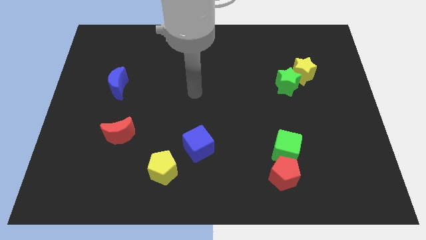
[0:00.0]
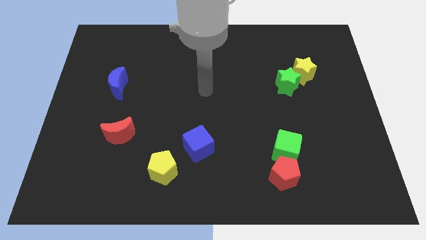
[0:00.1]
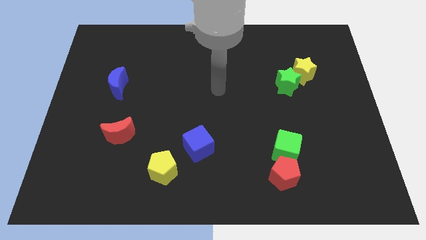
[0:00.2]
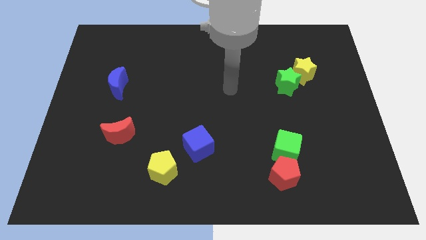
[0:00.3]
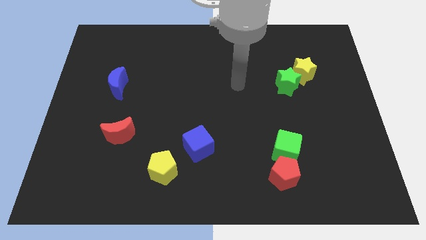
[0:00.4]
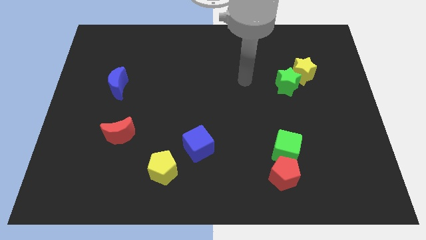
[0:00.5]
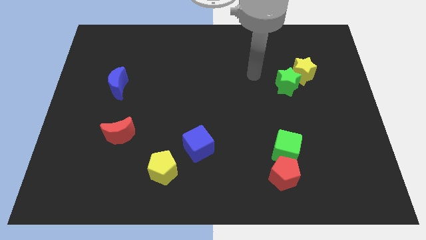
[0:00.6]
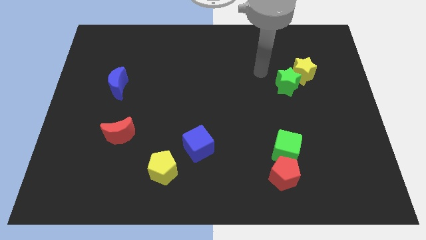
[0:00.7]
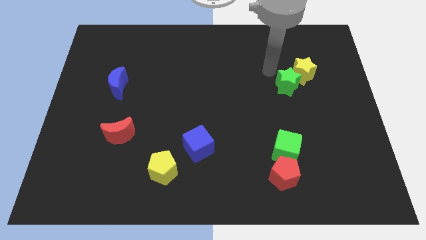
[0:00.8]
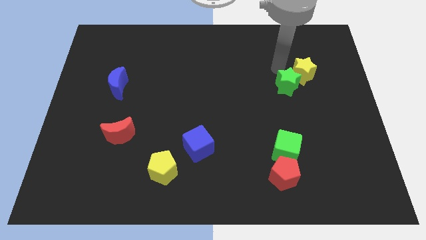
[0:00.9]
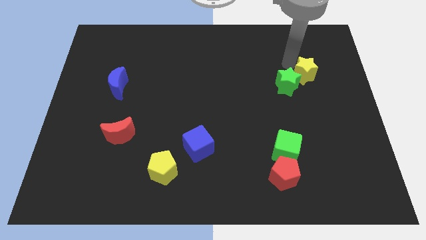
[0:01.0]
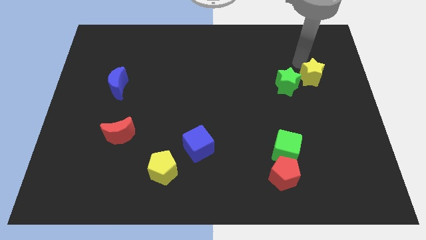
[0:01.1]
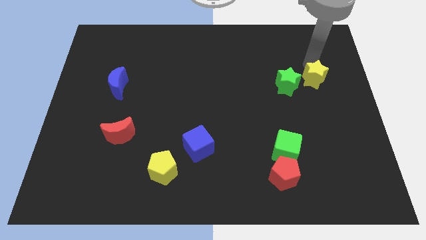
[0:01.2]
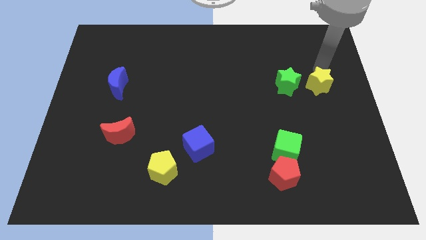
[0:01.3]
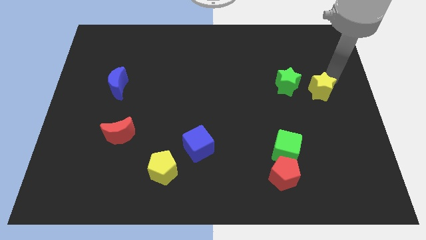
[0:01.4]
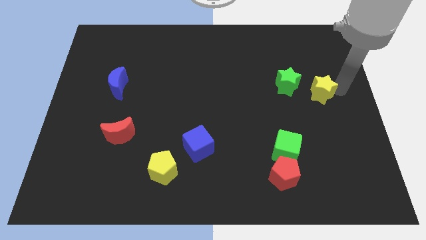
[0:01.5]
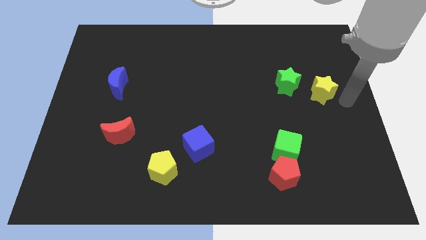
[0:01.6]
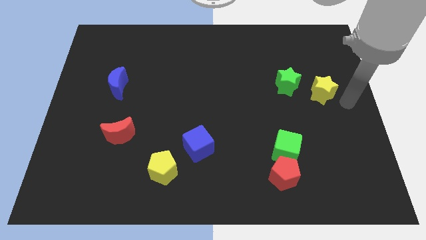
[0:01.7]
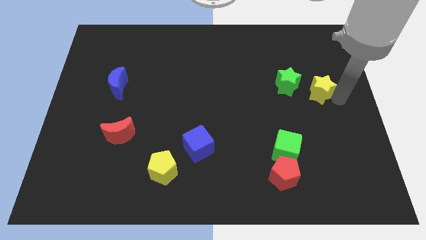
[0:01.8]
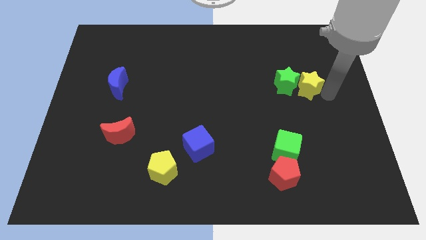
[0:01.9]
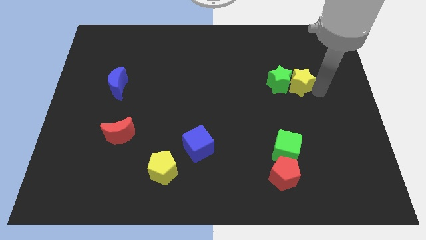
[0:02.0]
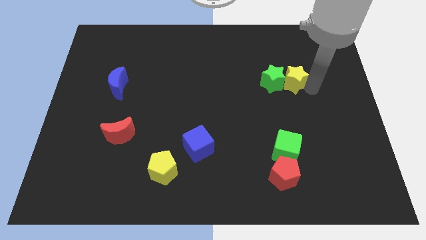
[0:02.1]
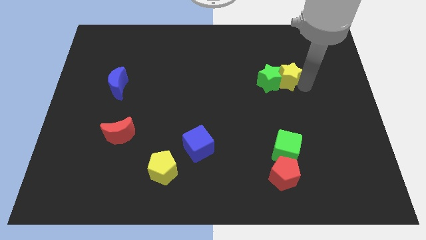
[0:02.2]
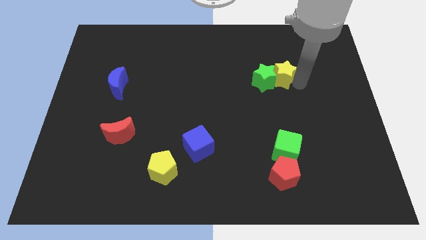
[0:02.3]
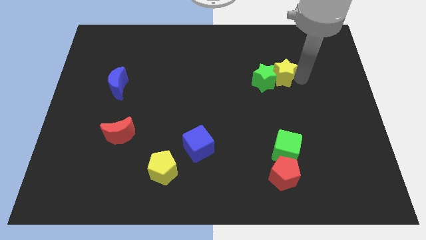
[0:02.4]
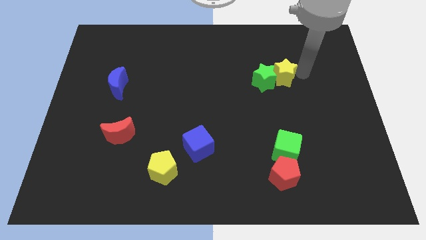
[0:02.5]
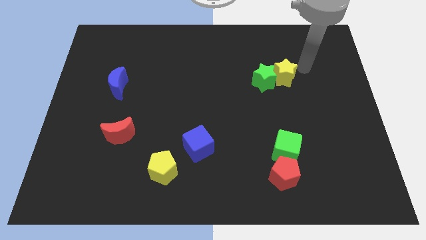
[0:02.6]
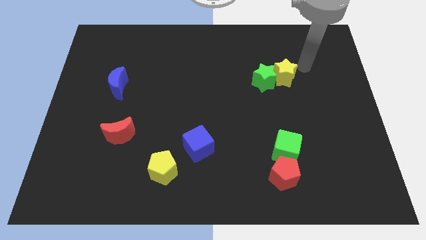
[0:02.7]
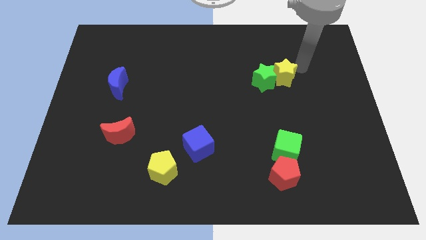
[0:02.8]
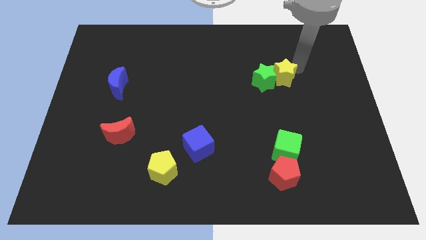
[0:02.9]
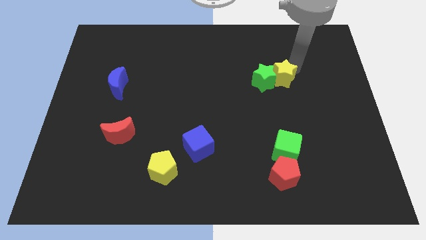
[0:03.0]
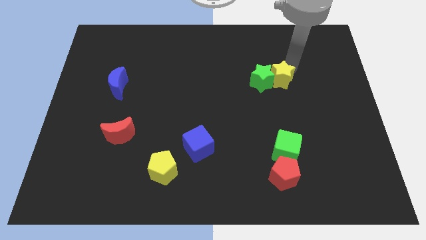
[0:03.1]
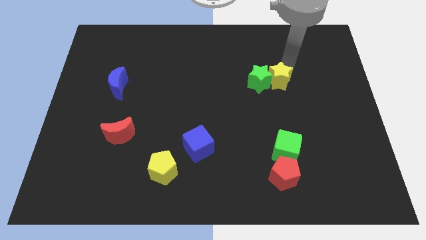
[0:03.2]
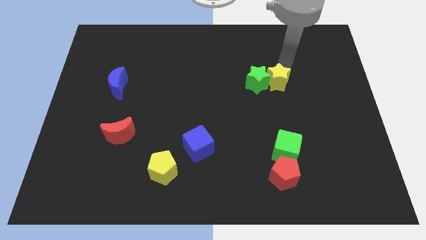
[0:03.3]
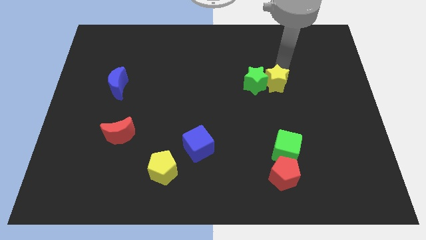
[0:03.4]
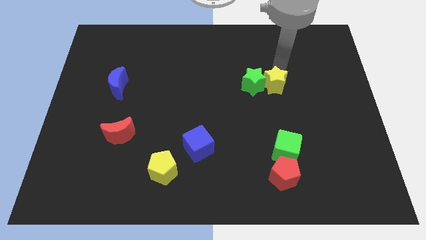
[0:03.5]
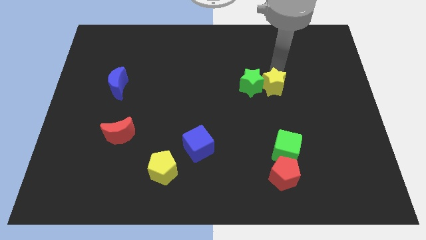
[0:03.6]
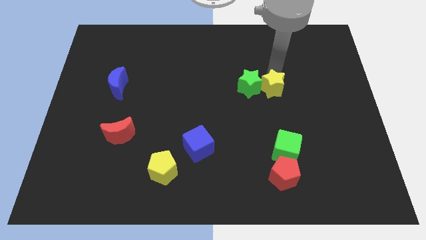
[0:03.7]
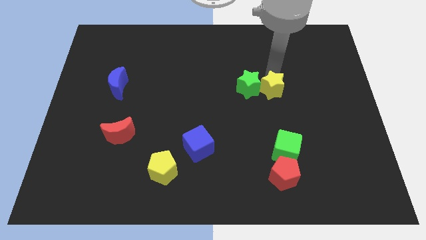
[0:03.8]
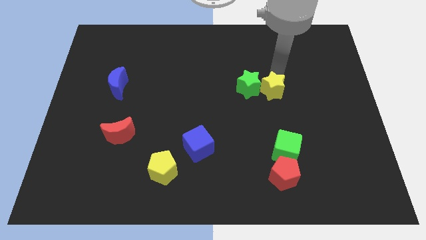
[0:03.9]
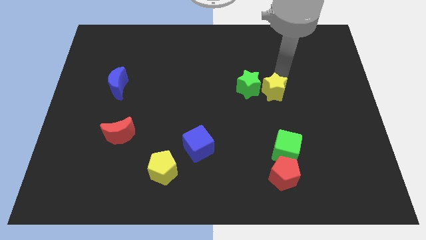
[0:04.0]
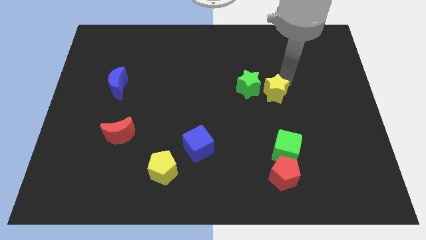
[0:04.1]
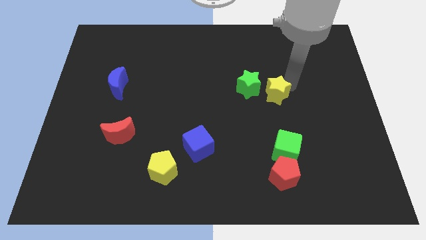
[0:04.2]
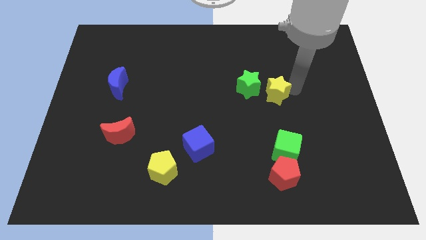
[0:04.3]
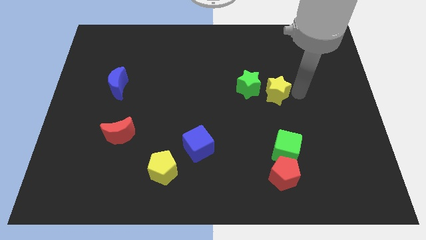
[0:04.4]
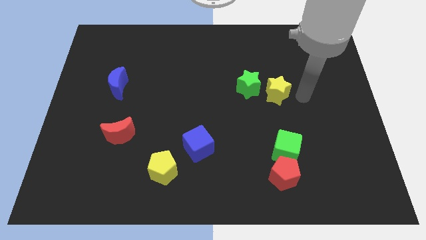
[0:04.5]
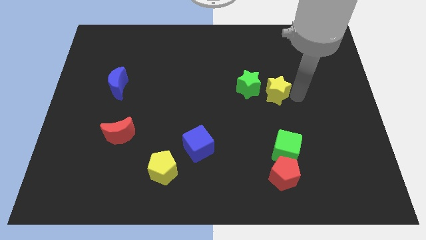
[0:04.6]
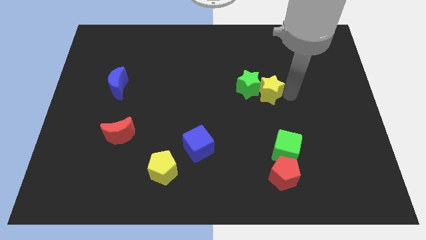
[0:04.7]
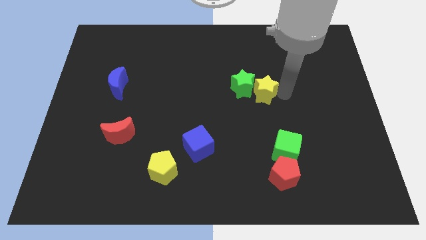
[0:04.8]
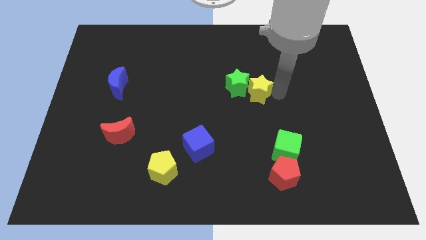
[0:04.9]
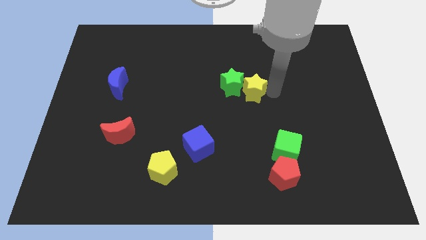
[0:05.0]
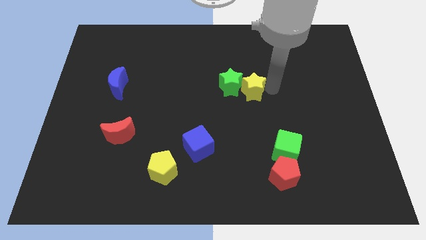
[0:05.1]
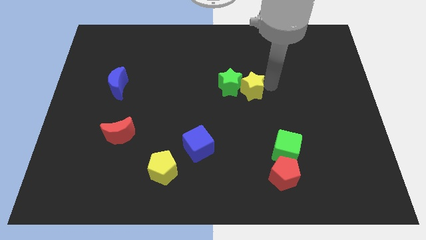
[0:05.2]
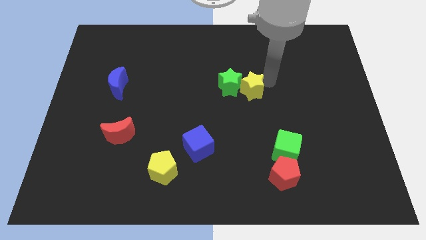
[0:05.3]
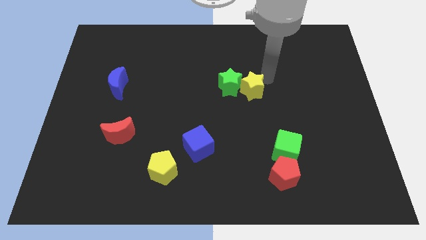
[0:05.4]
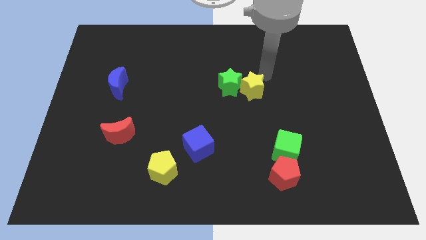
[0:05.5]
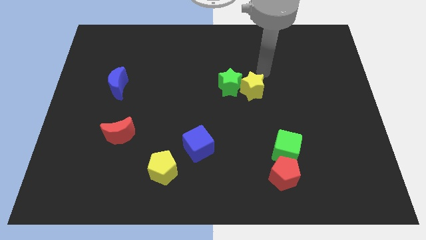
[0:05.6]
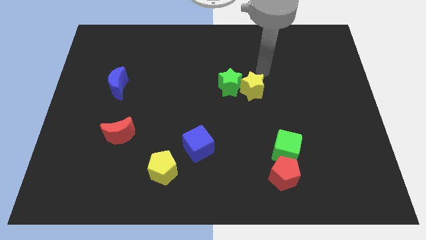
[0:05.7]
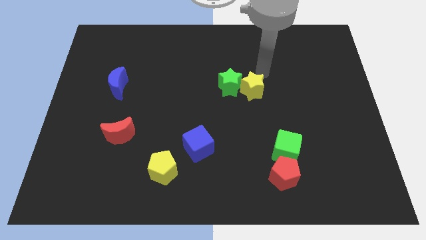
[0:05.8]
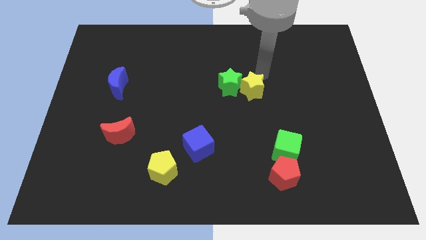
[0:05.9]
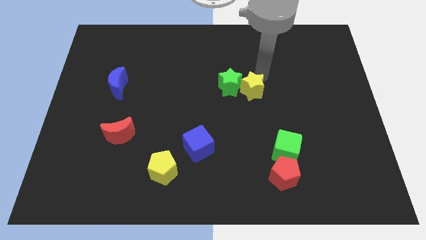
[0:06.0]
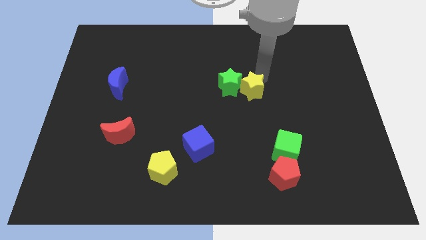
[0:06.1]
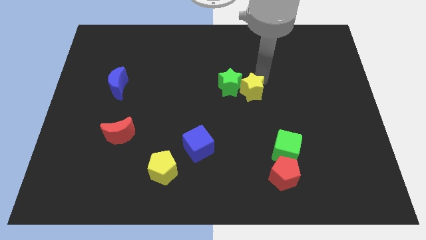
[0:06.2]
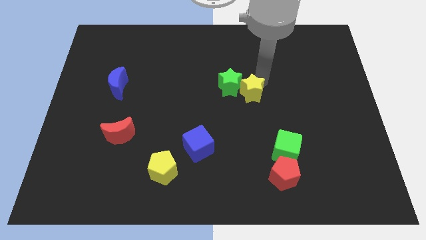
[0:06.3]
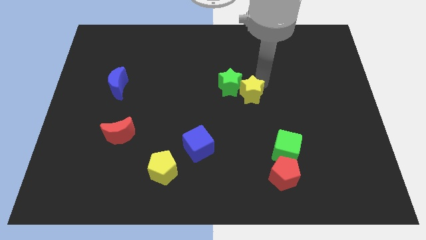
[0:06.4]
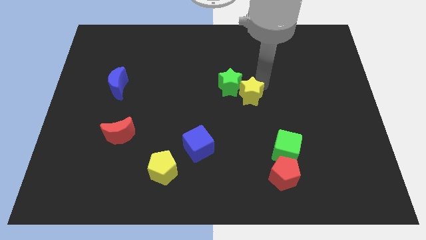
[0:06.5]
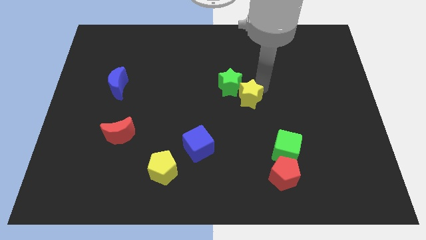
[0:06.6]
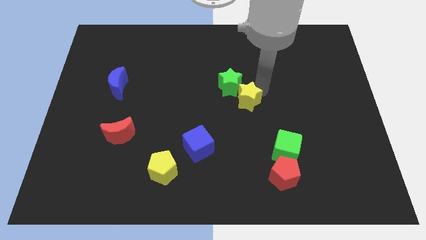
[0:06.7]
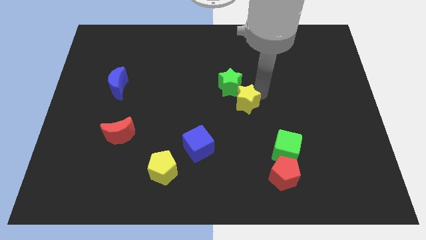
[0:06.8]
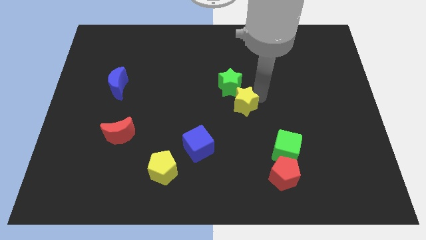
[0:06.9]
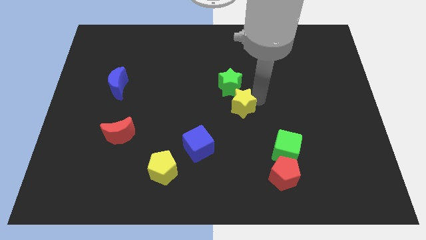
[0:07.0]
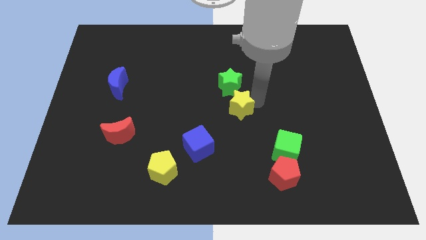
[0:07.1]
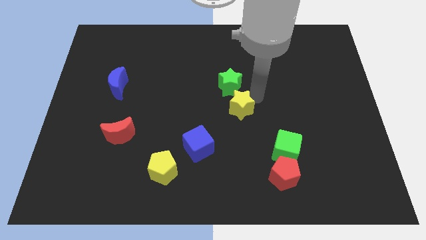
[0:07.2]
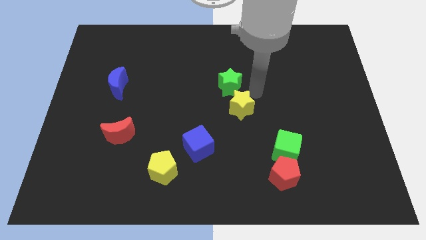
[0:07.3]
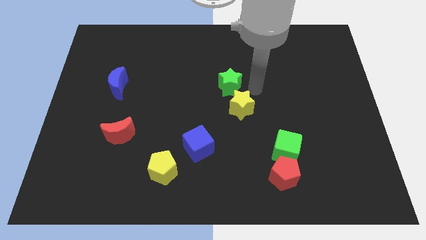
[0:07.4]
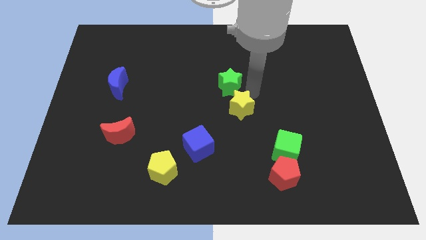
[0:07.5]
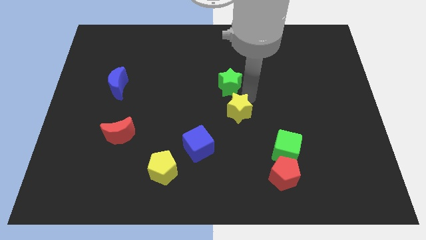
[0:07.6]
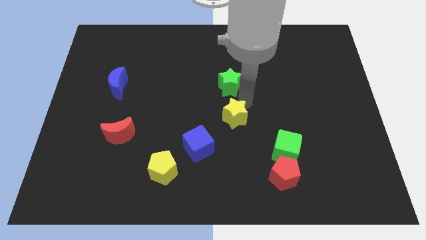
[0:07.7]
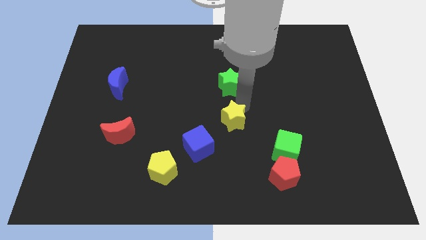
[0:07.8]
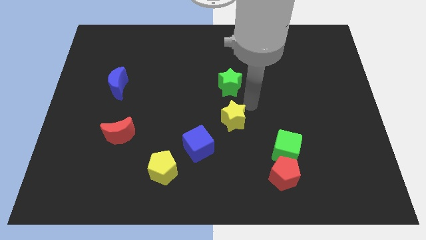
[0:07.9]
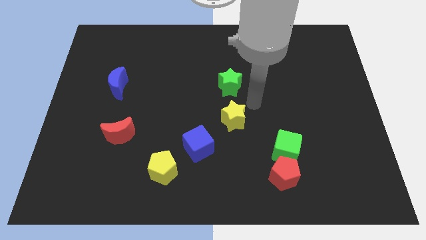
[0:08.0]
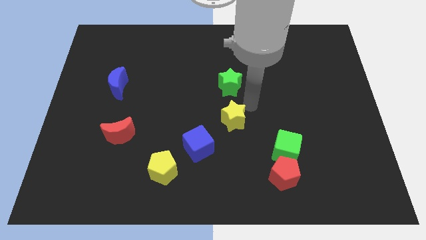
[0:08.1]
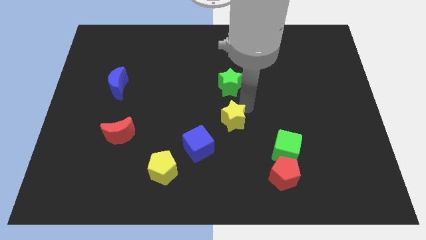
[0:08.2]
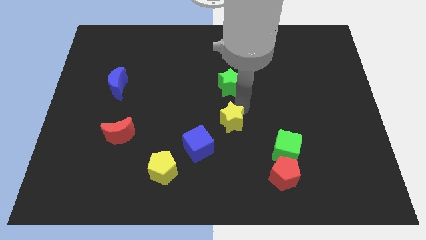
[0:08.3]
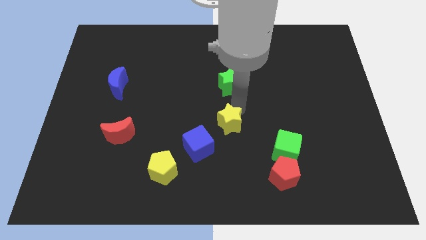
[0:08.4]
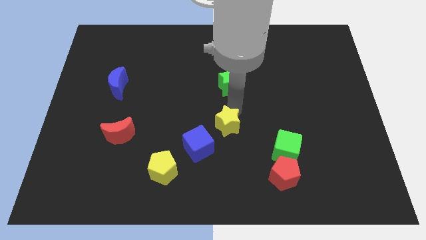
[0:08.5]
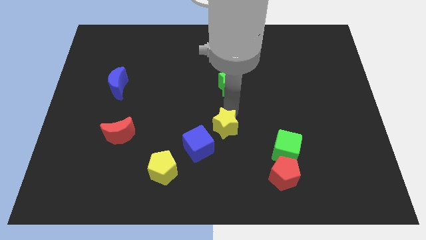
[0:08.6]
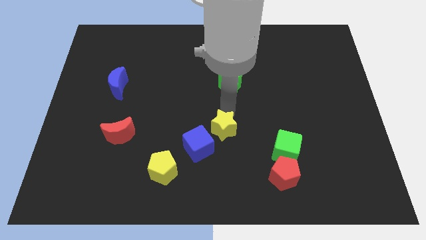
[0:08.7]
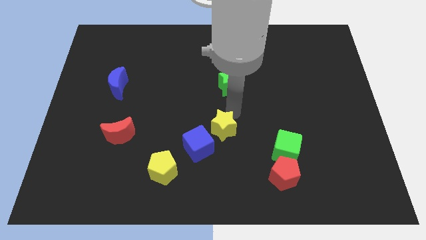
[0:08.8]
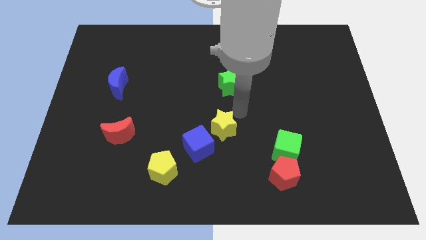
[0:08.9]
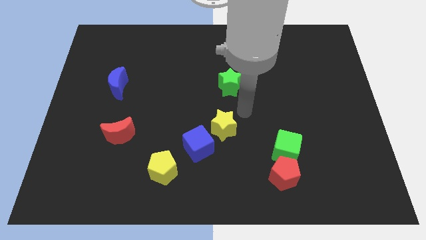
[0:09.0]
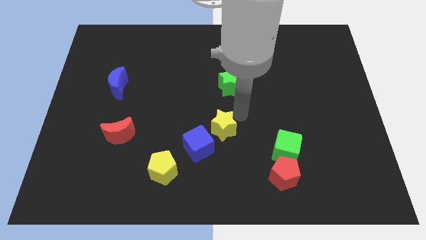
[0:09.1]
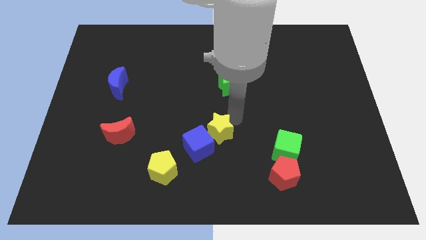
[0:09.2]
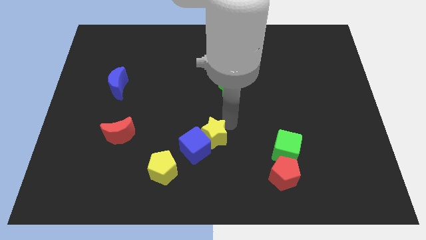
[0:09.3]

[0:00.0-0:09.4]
push the yellow star towards the blue cube
